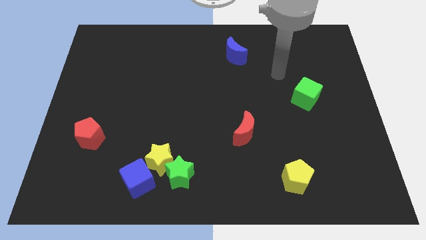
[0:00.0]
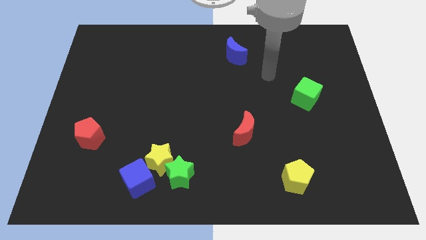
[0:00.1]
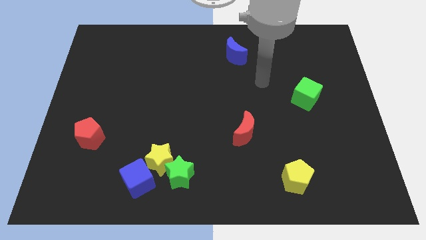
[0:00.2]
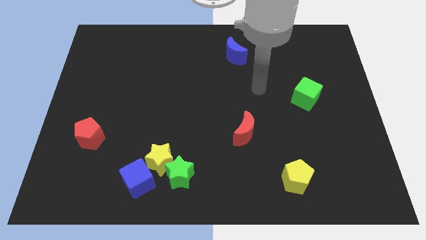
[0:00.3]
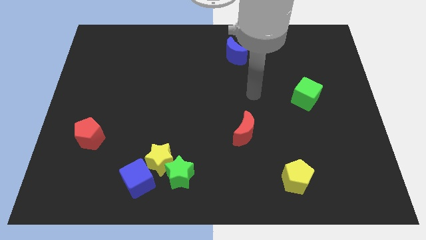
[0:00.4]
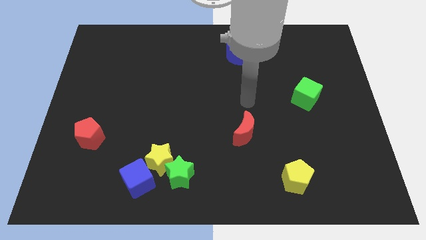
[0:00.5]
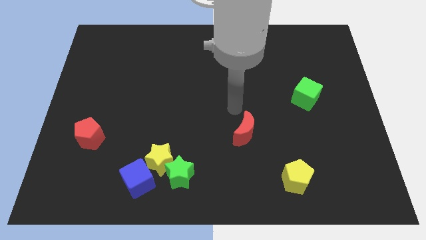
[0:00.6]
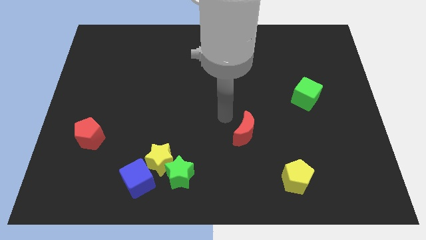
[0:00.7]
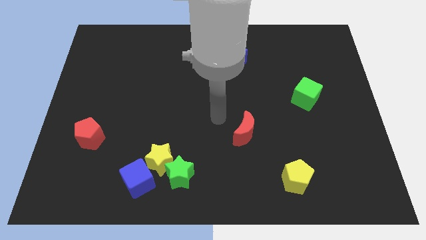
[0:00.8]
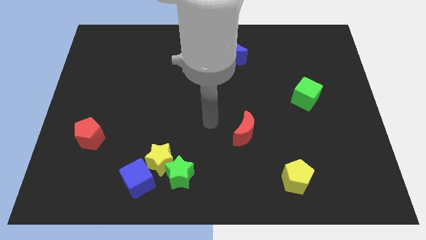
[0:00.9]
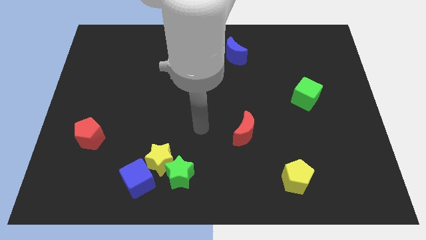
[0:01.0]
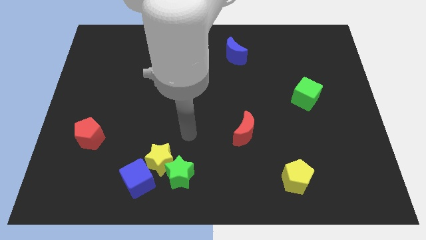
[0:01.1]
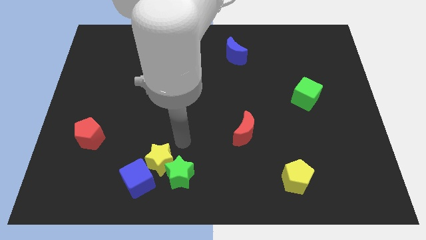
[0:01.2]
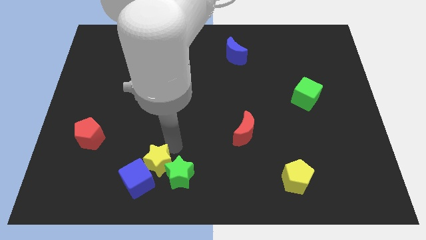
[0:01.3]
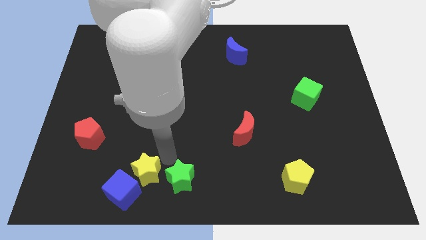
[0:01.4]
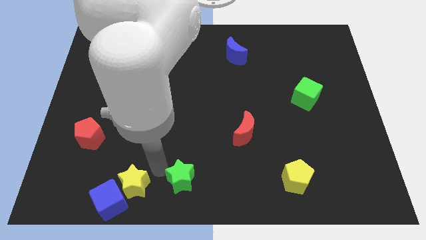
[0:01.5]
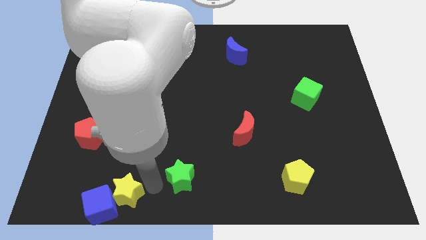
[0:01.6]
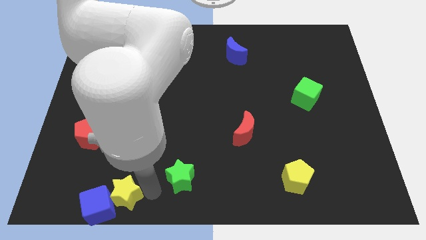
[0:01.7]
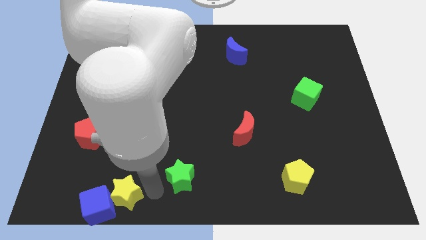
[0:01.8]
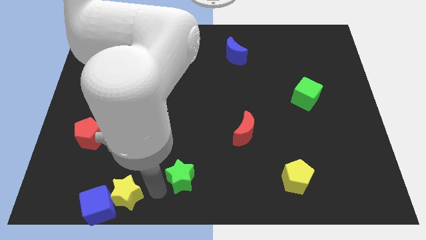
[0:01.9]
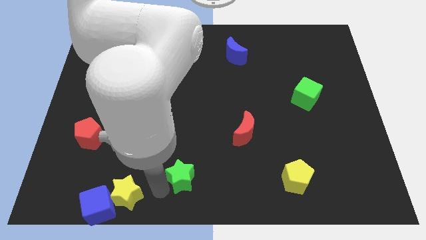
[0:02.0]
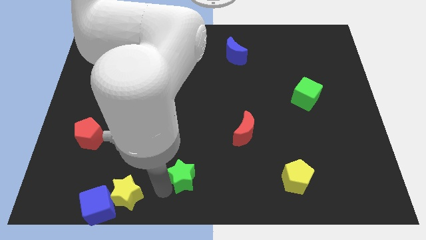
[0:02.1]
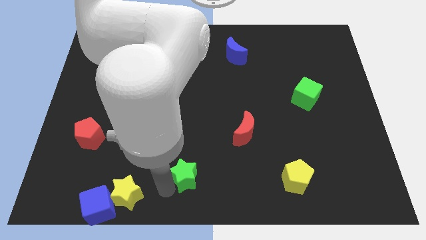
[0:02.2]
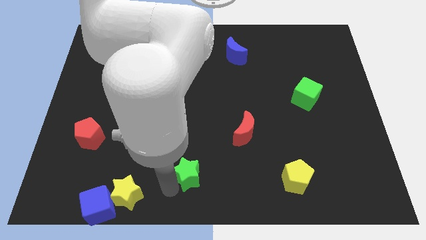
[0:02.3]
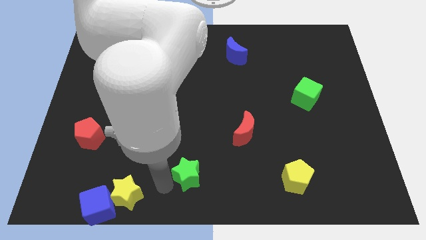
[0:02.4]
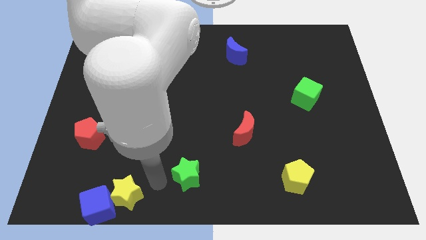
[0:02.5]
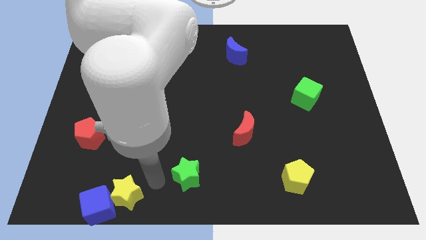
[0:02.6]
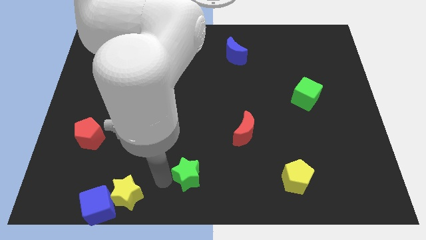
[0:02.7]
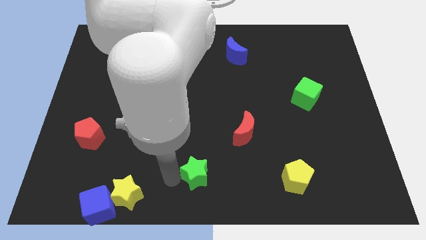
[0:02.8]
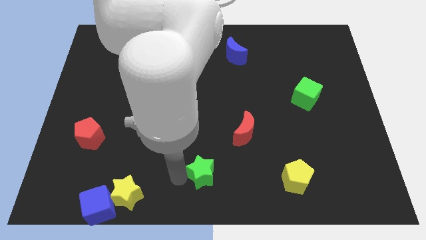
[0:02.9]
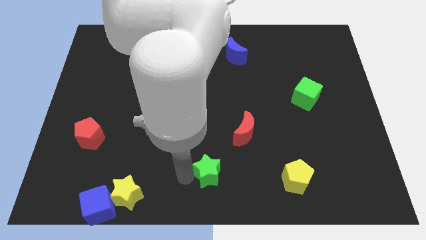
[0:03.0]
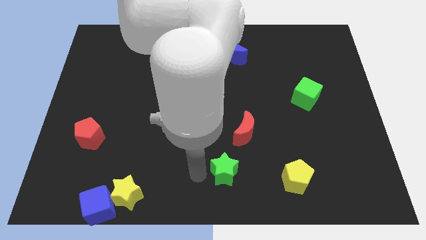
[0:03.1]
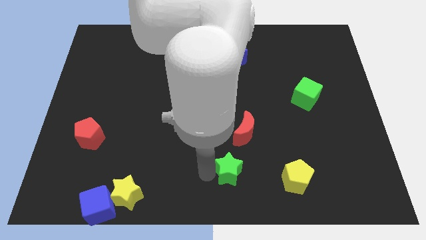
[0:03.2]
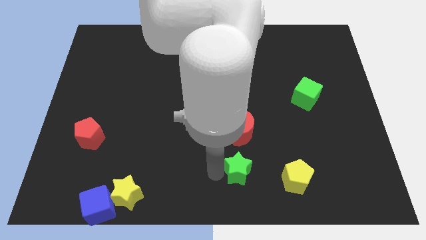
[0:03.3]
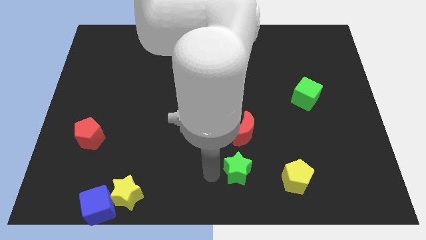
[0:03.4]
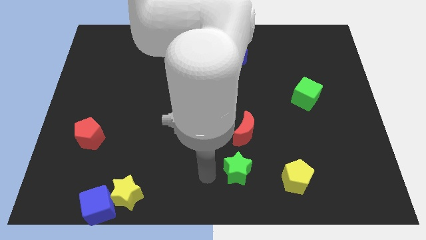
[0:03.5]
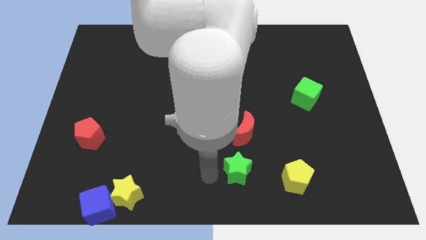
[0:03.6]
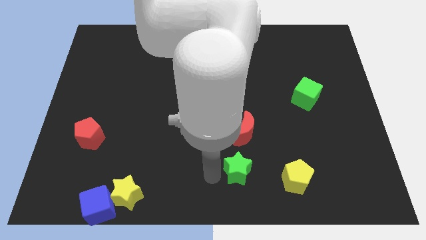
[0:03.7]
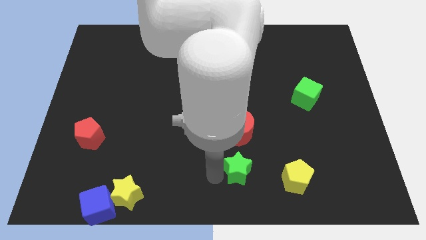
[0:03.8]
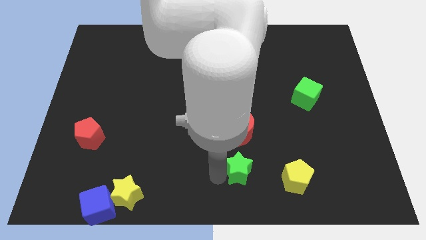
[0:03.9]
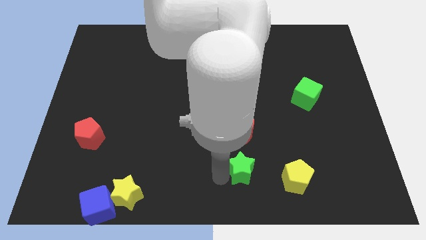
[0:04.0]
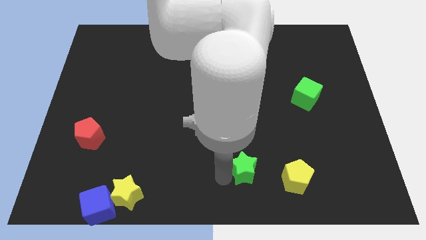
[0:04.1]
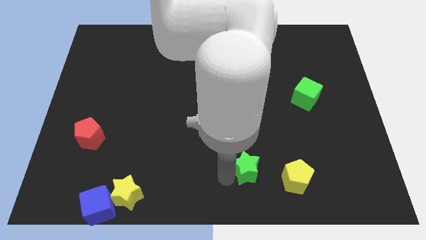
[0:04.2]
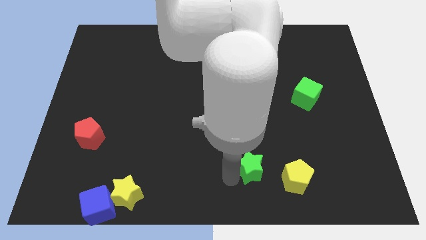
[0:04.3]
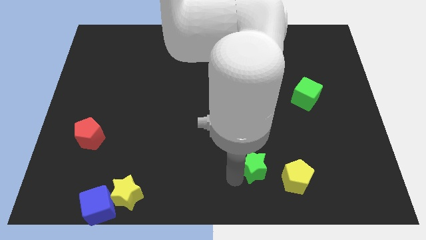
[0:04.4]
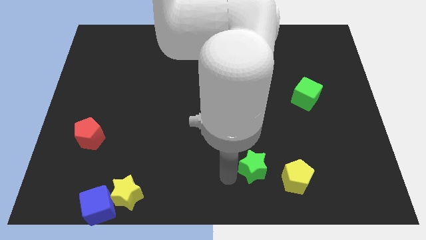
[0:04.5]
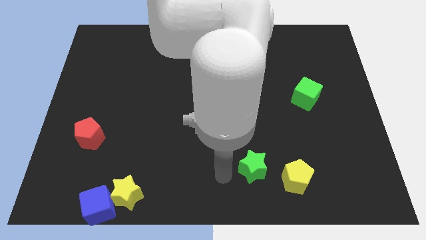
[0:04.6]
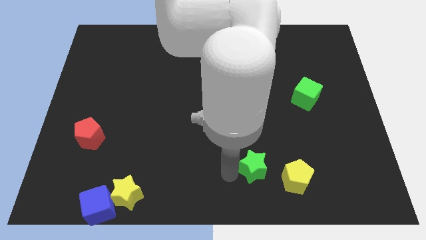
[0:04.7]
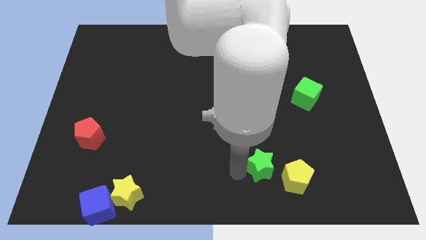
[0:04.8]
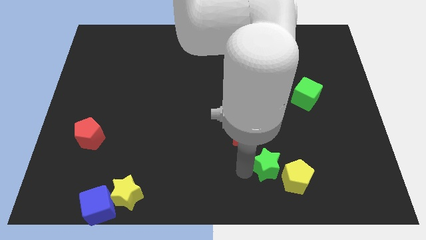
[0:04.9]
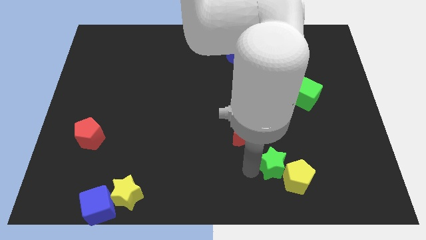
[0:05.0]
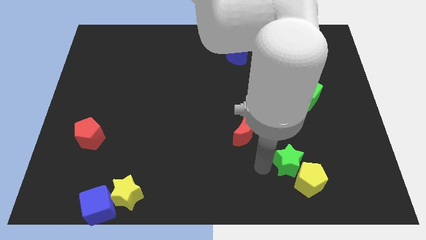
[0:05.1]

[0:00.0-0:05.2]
slide the green star to the right

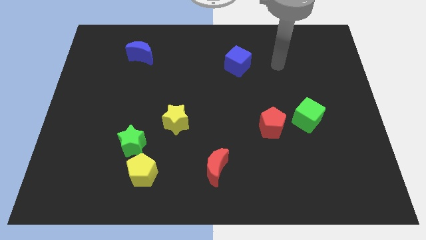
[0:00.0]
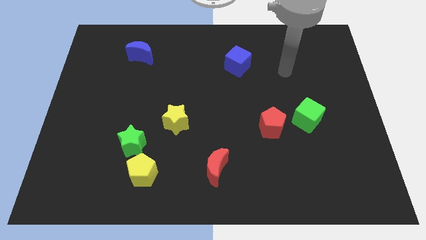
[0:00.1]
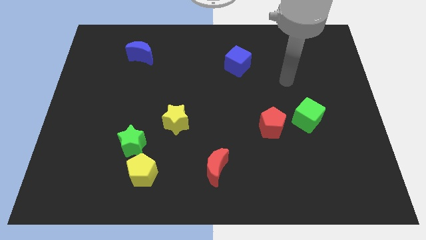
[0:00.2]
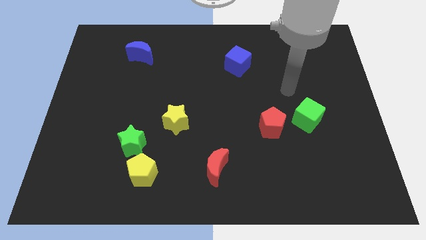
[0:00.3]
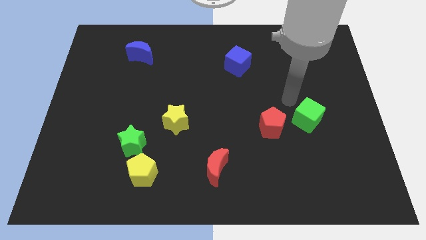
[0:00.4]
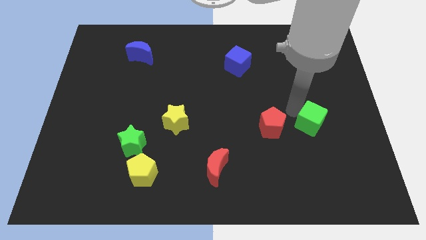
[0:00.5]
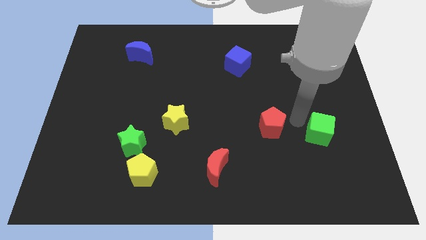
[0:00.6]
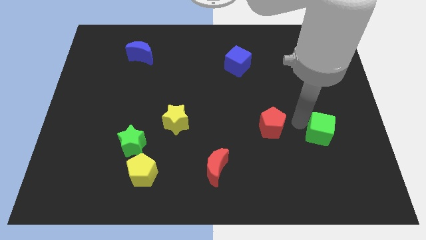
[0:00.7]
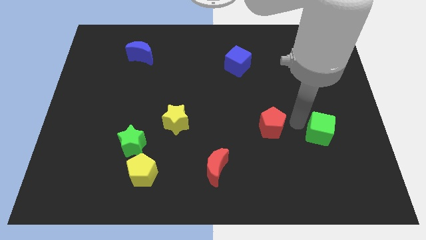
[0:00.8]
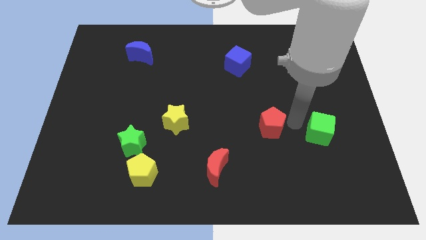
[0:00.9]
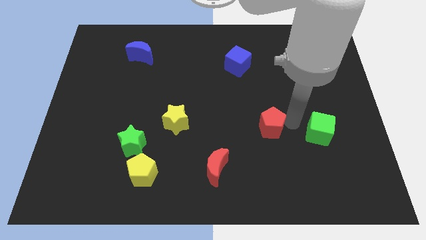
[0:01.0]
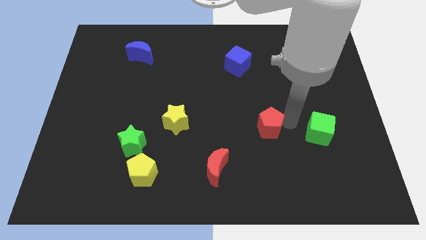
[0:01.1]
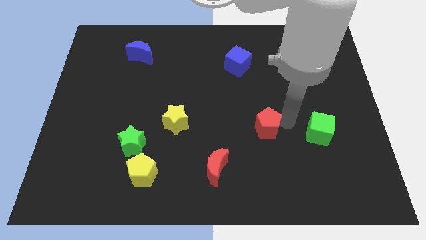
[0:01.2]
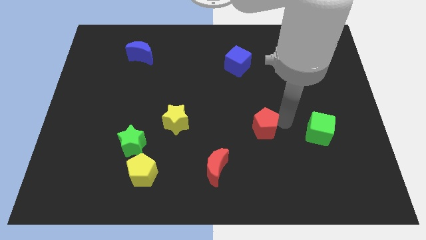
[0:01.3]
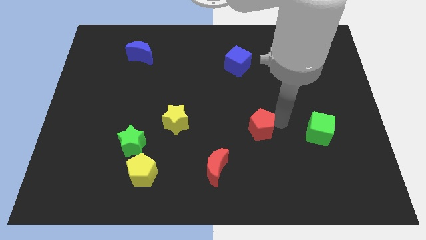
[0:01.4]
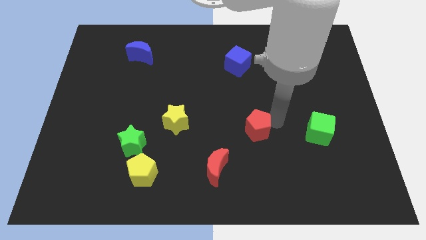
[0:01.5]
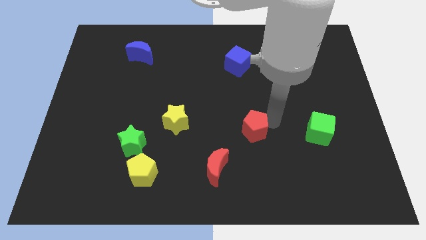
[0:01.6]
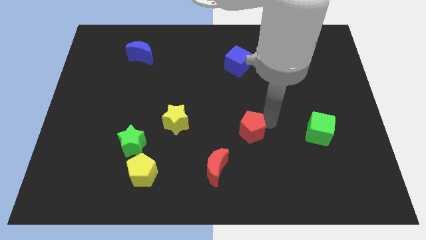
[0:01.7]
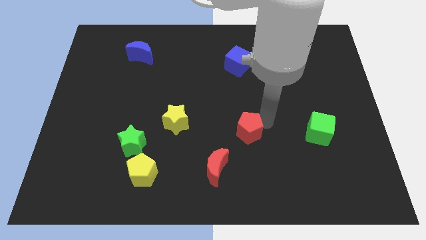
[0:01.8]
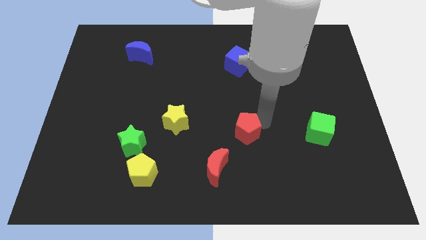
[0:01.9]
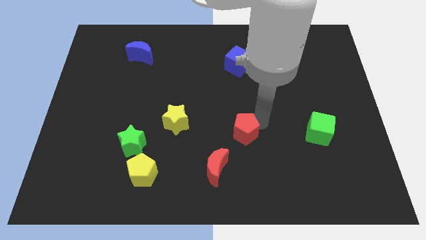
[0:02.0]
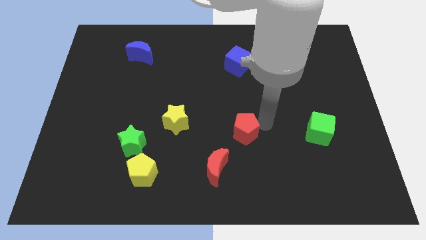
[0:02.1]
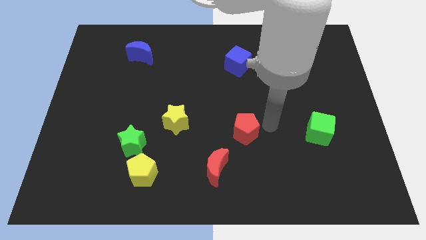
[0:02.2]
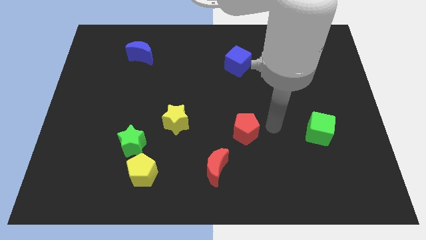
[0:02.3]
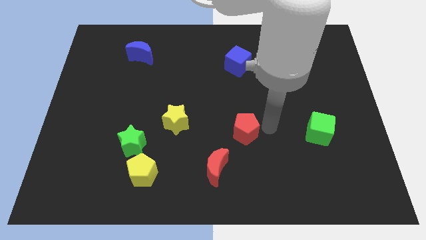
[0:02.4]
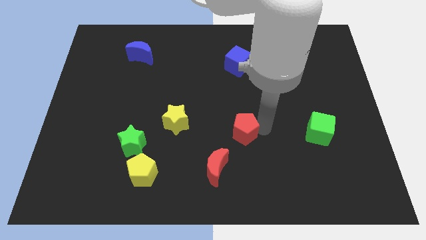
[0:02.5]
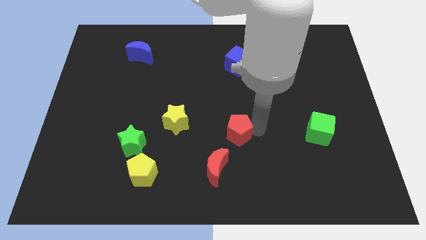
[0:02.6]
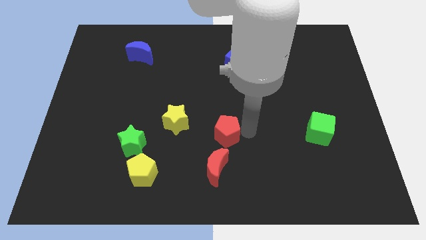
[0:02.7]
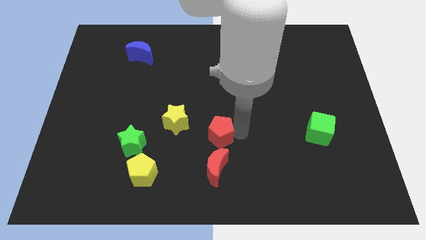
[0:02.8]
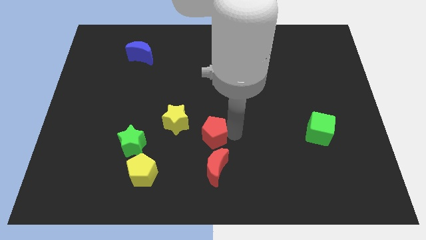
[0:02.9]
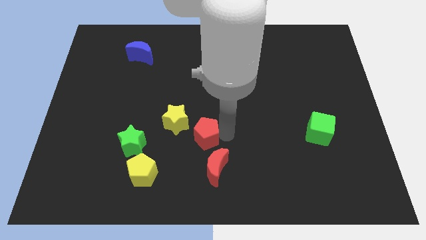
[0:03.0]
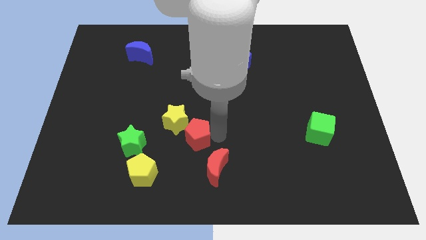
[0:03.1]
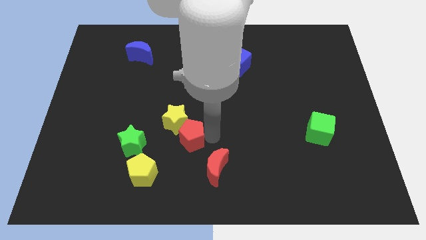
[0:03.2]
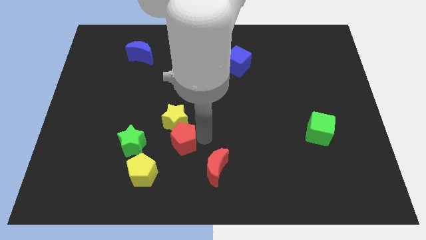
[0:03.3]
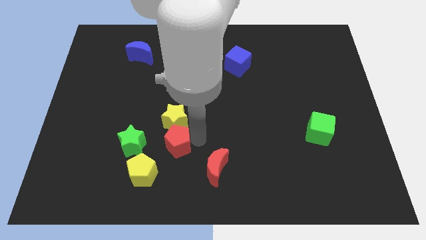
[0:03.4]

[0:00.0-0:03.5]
push the red pentagon to the left
